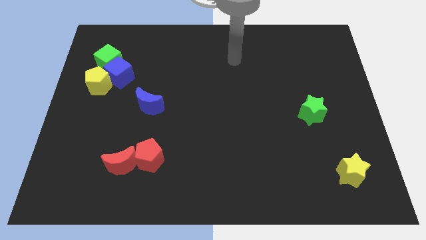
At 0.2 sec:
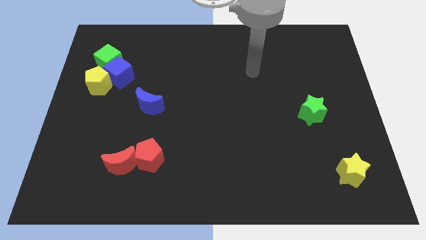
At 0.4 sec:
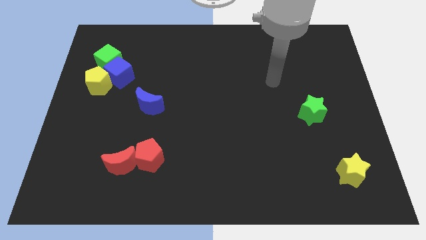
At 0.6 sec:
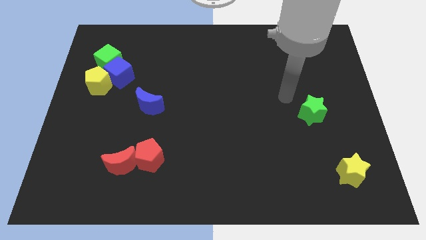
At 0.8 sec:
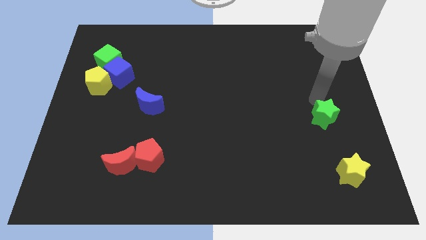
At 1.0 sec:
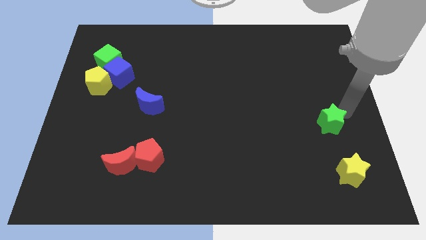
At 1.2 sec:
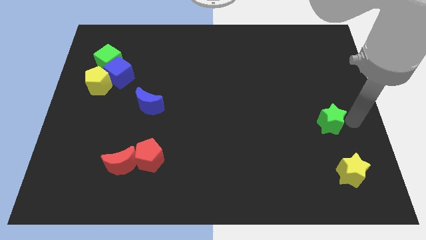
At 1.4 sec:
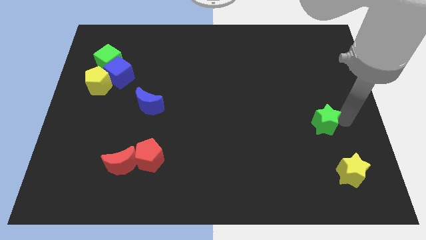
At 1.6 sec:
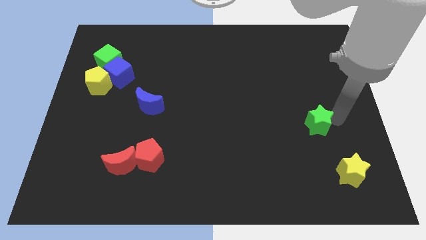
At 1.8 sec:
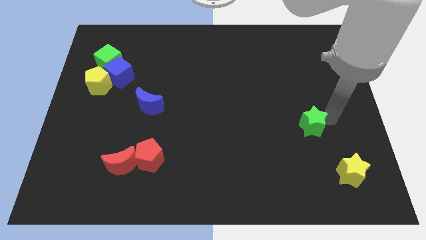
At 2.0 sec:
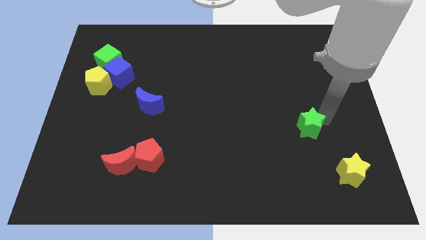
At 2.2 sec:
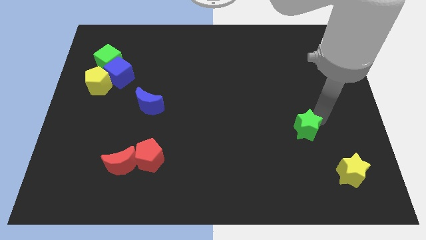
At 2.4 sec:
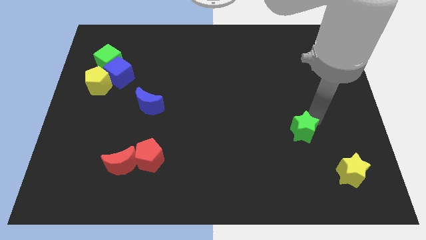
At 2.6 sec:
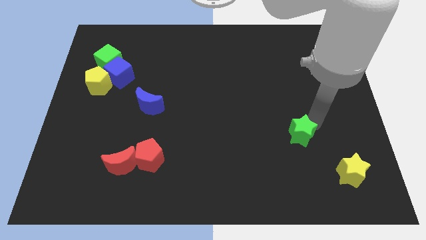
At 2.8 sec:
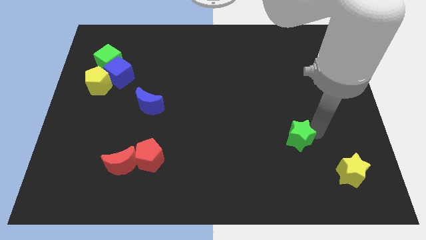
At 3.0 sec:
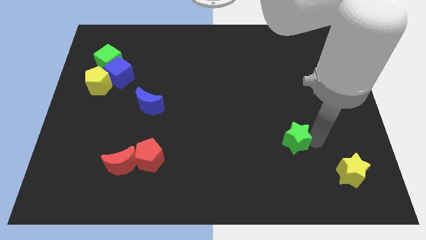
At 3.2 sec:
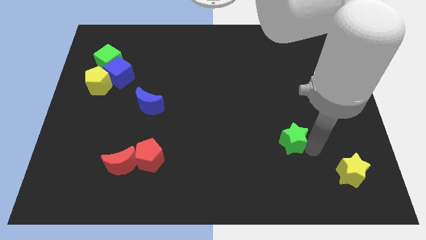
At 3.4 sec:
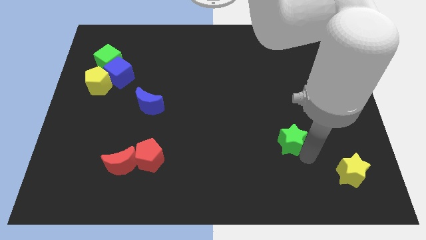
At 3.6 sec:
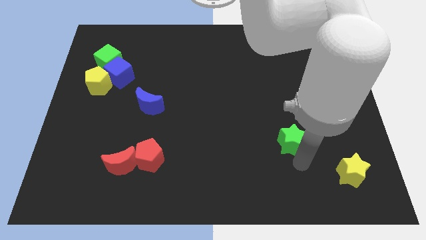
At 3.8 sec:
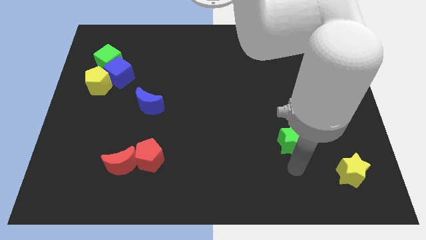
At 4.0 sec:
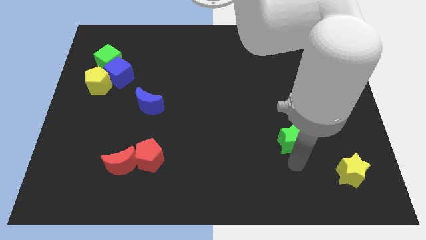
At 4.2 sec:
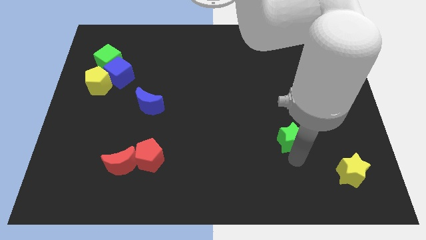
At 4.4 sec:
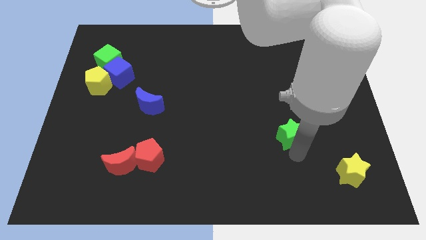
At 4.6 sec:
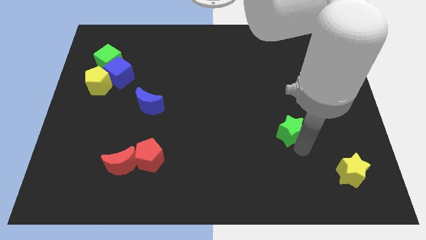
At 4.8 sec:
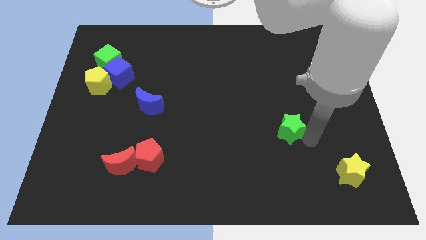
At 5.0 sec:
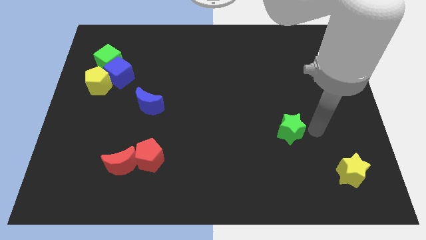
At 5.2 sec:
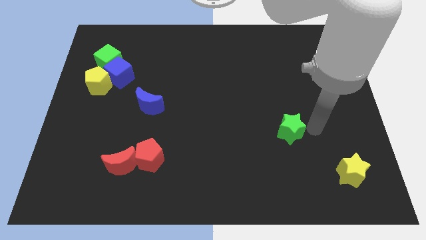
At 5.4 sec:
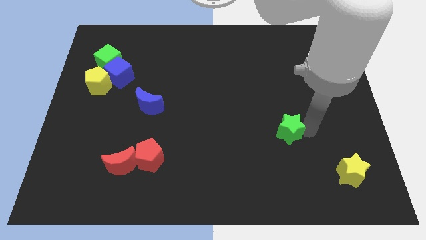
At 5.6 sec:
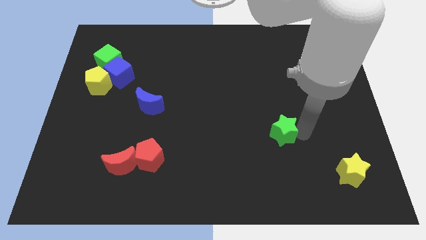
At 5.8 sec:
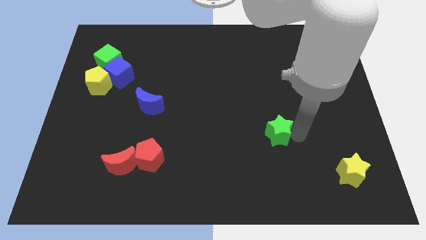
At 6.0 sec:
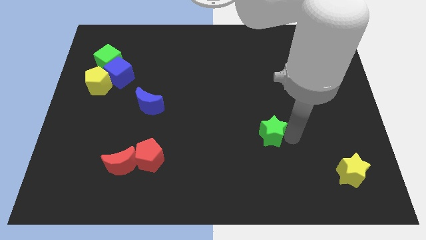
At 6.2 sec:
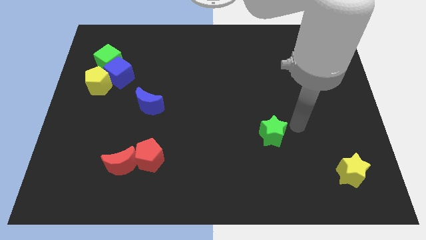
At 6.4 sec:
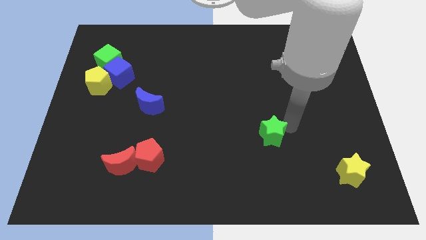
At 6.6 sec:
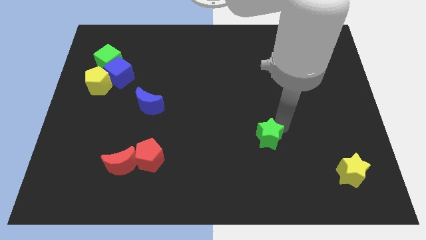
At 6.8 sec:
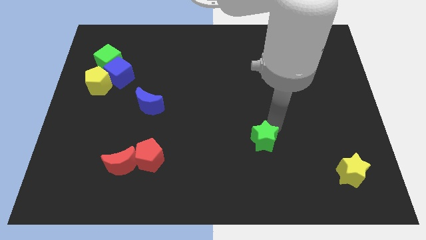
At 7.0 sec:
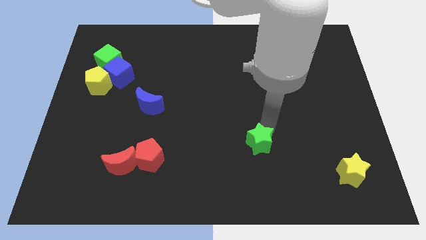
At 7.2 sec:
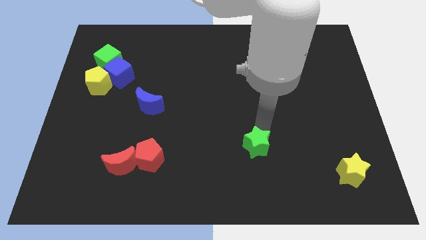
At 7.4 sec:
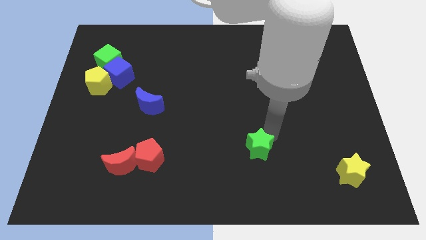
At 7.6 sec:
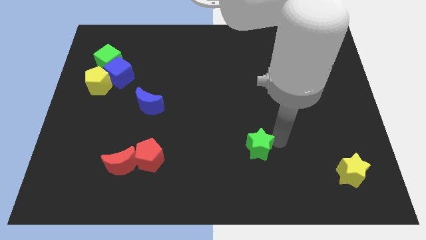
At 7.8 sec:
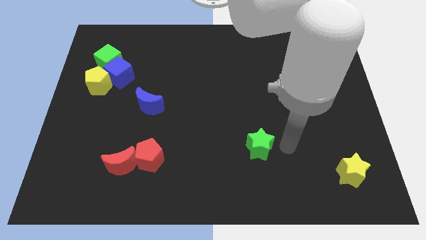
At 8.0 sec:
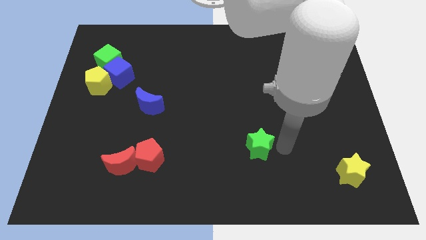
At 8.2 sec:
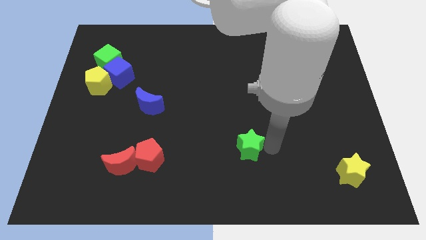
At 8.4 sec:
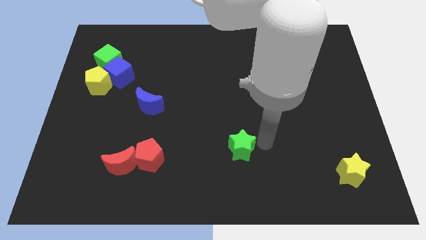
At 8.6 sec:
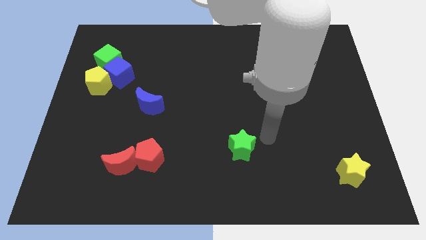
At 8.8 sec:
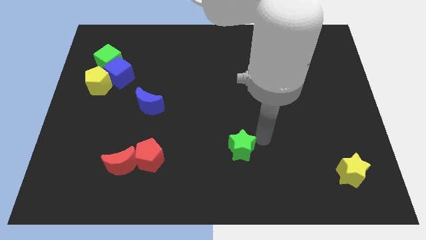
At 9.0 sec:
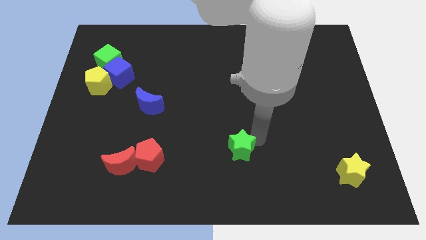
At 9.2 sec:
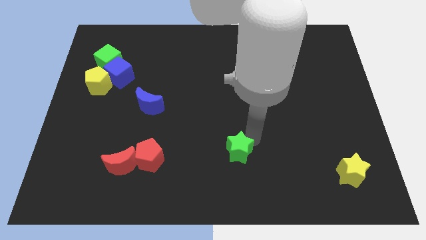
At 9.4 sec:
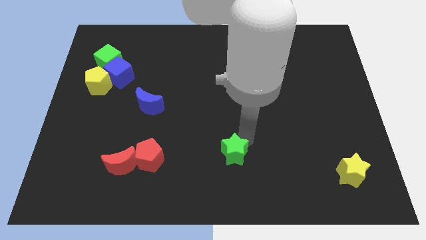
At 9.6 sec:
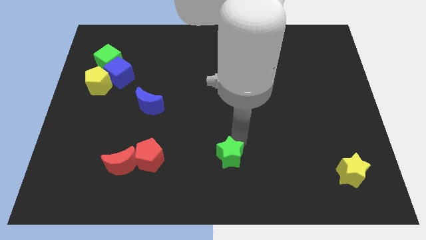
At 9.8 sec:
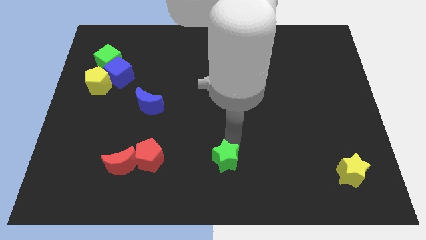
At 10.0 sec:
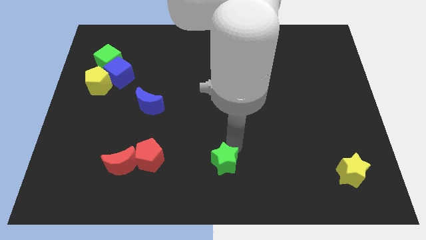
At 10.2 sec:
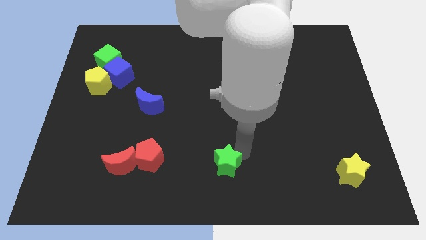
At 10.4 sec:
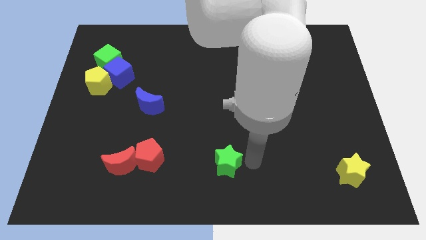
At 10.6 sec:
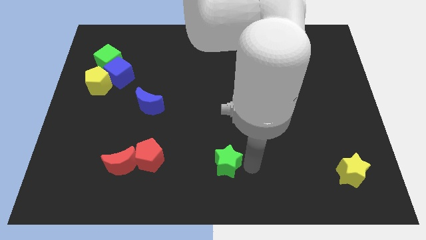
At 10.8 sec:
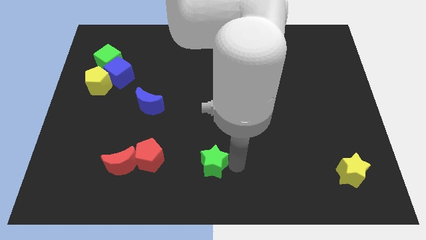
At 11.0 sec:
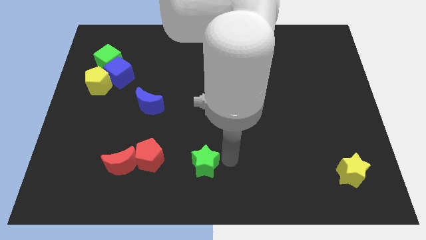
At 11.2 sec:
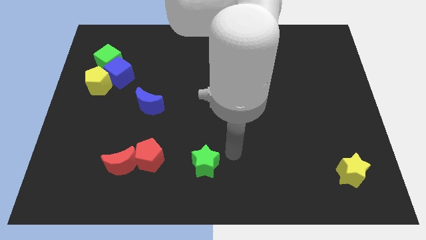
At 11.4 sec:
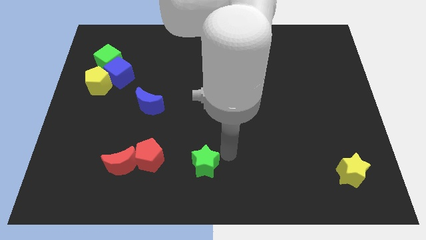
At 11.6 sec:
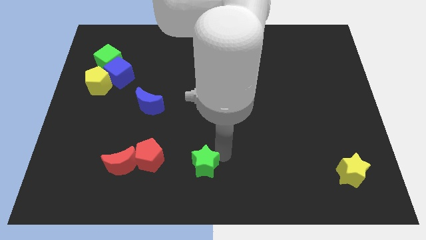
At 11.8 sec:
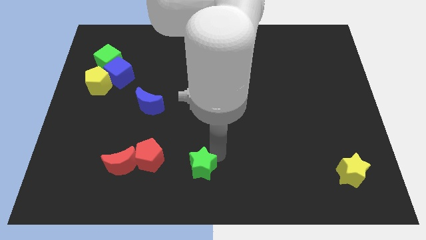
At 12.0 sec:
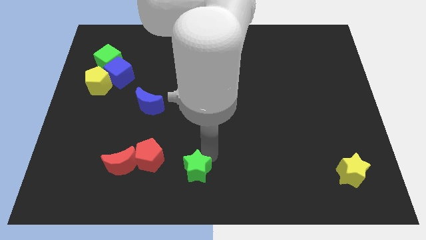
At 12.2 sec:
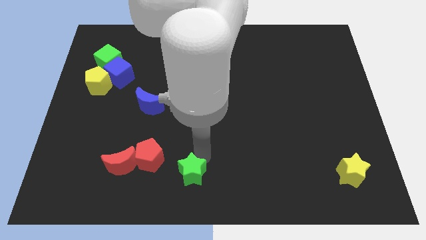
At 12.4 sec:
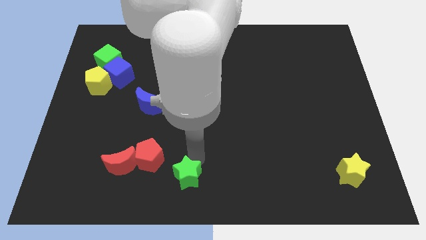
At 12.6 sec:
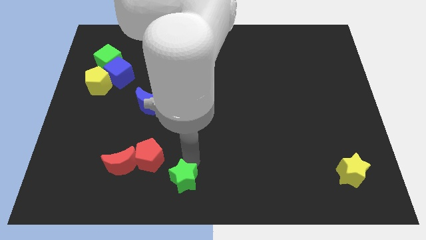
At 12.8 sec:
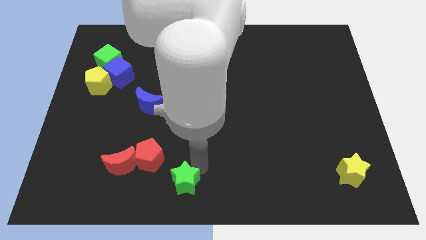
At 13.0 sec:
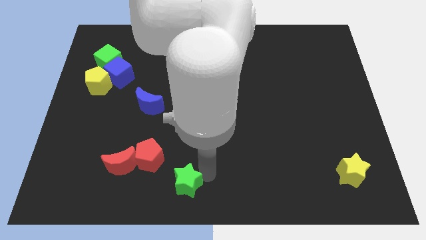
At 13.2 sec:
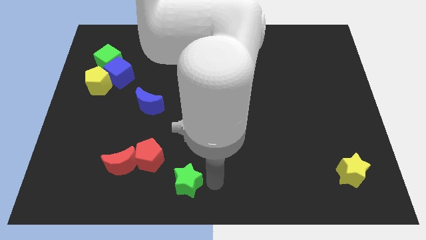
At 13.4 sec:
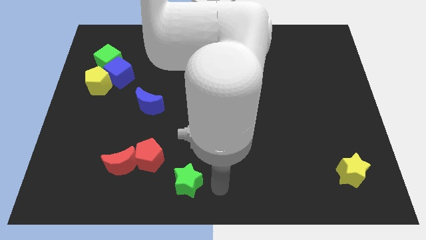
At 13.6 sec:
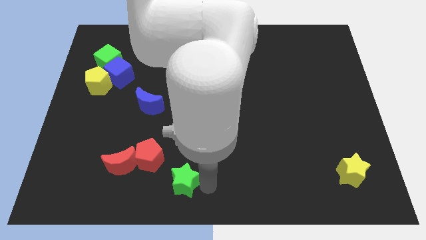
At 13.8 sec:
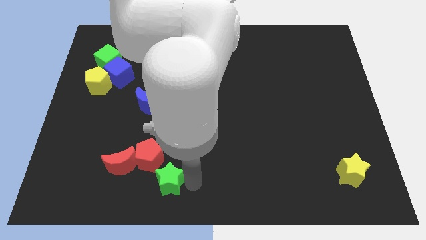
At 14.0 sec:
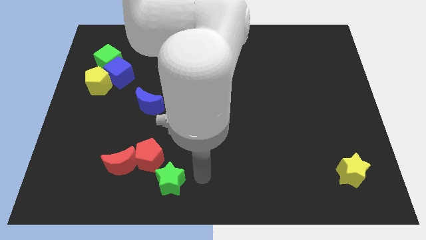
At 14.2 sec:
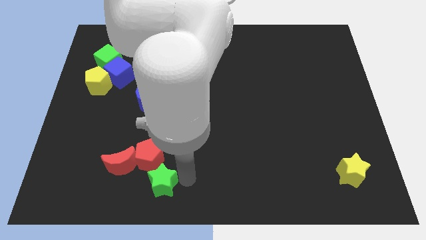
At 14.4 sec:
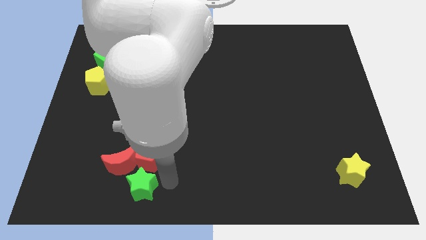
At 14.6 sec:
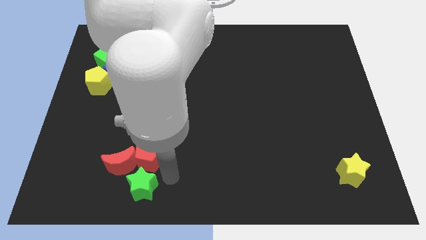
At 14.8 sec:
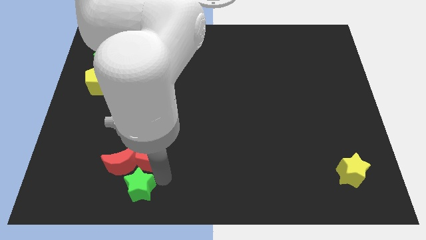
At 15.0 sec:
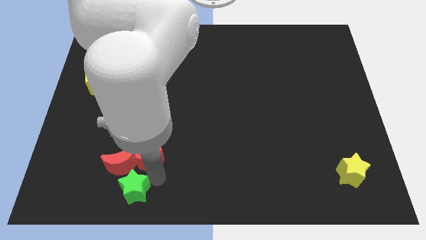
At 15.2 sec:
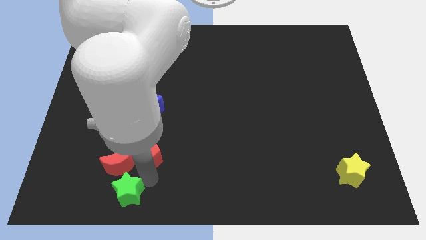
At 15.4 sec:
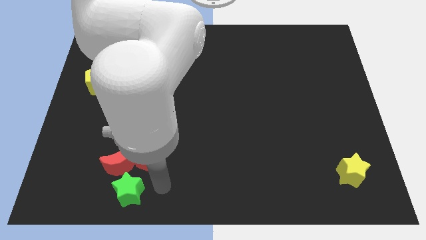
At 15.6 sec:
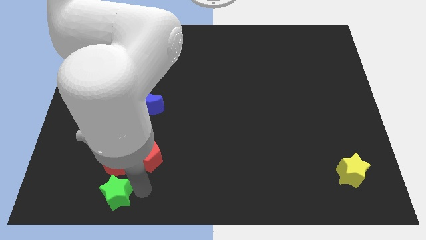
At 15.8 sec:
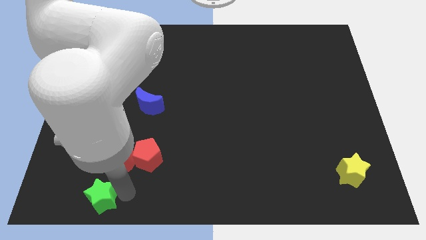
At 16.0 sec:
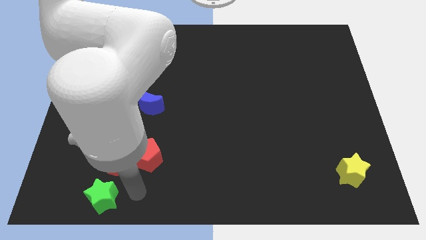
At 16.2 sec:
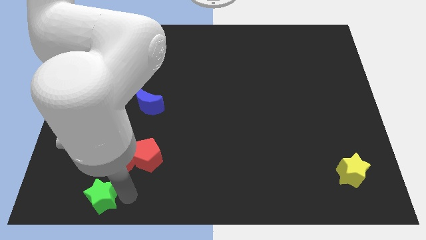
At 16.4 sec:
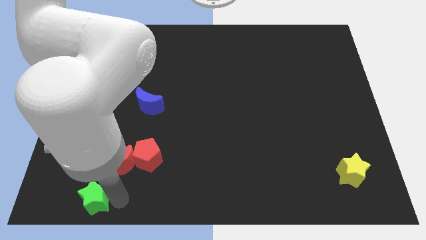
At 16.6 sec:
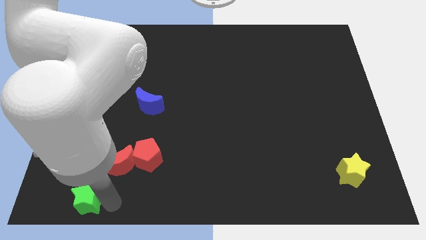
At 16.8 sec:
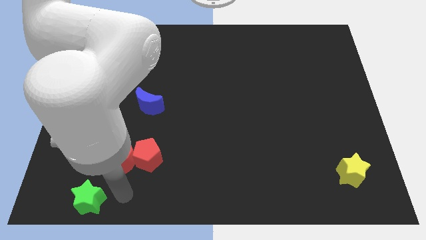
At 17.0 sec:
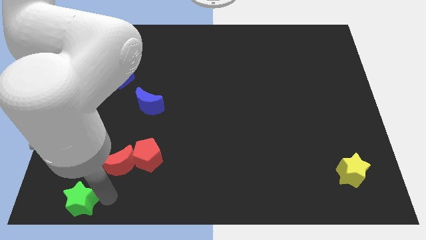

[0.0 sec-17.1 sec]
put the green star to the bottom left of the board
